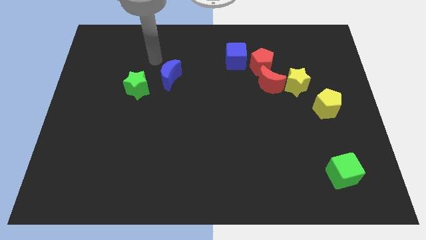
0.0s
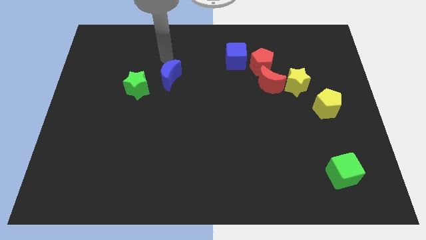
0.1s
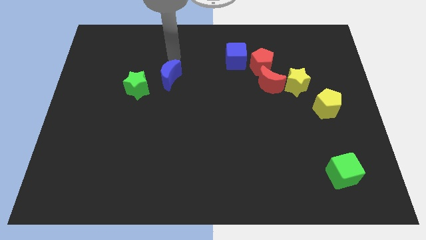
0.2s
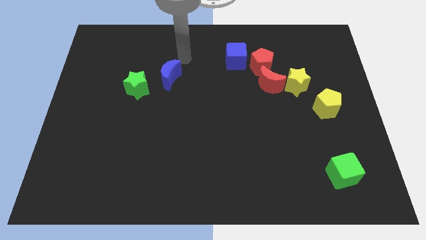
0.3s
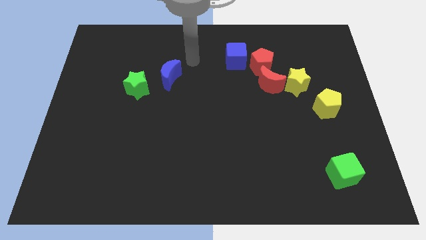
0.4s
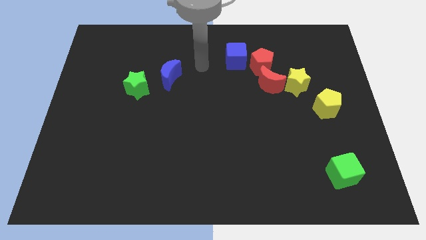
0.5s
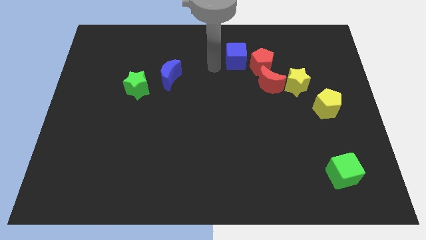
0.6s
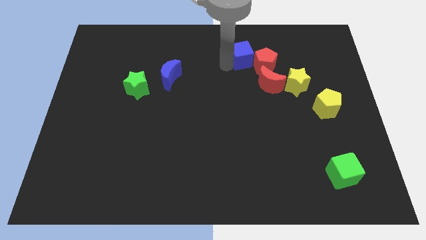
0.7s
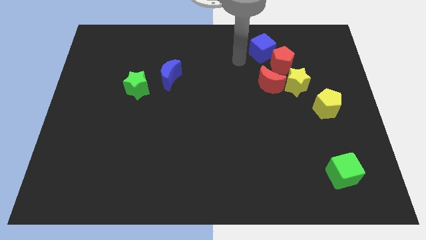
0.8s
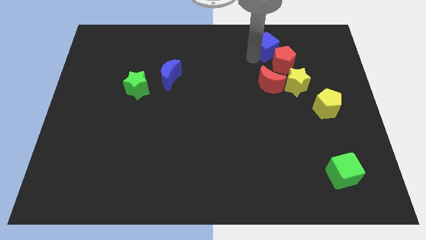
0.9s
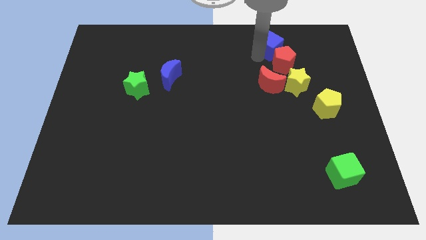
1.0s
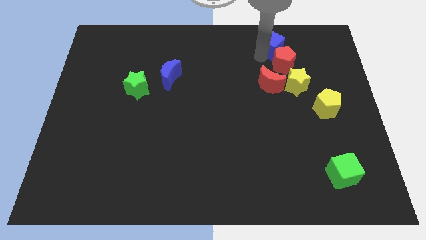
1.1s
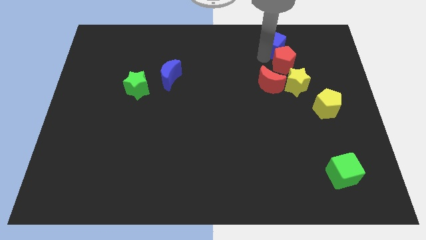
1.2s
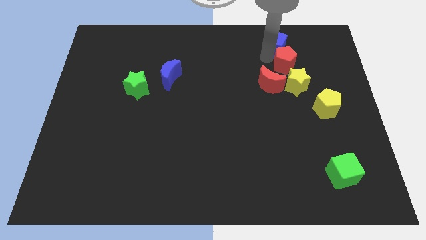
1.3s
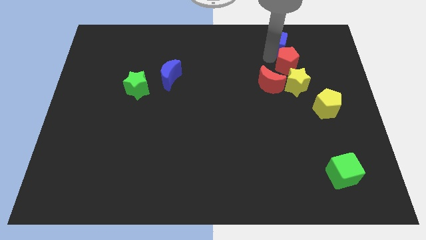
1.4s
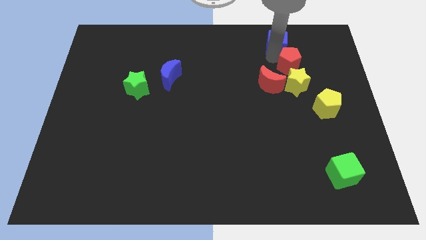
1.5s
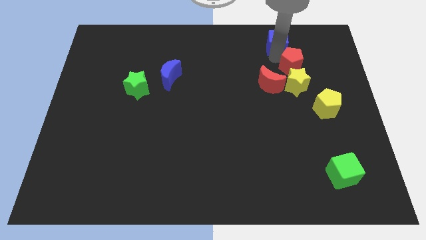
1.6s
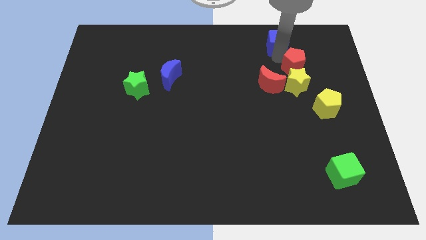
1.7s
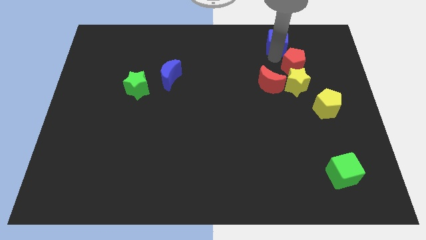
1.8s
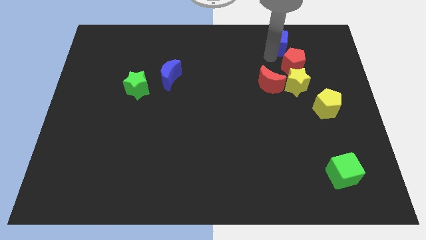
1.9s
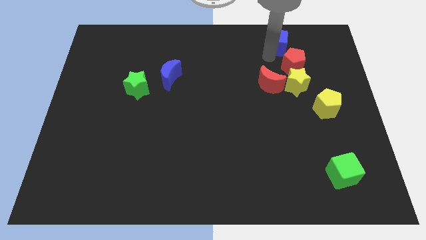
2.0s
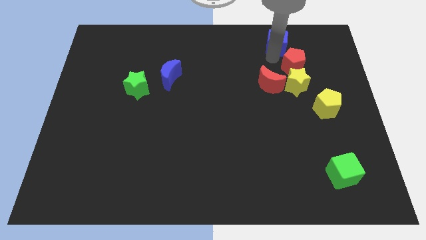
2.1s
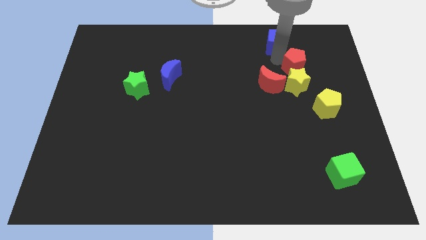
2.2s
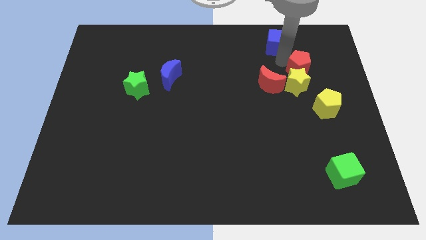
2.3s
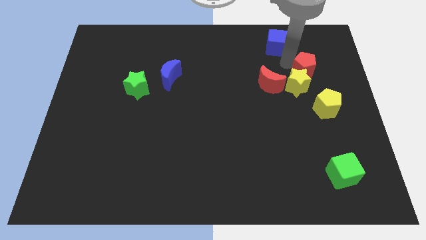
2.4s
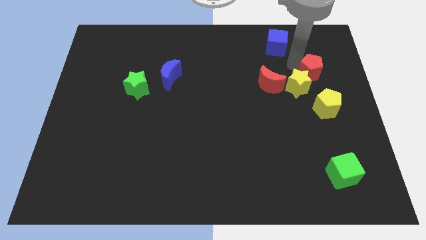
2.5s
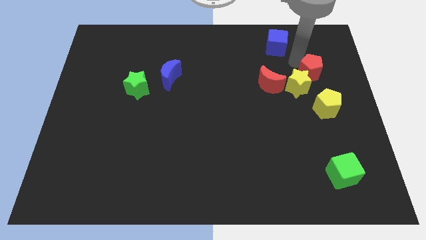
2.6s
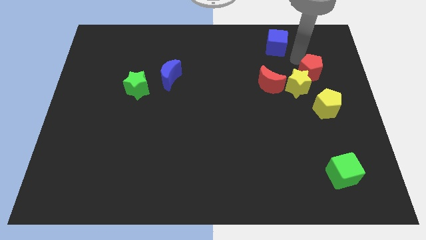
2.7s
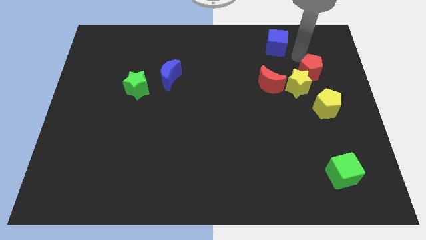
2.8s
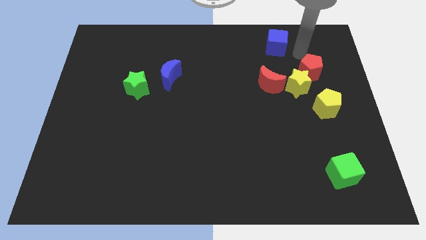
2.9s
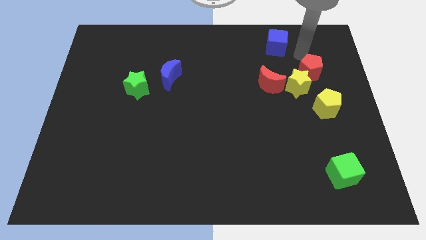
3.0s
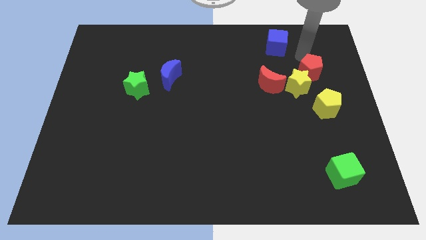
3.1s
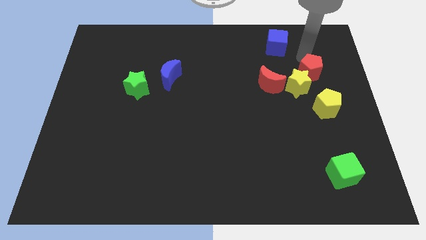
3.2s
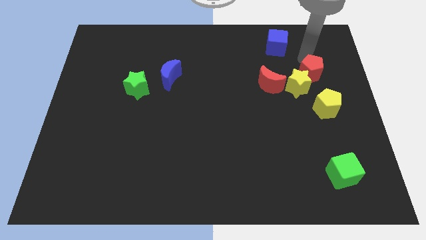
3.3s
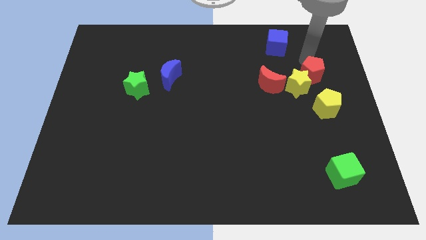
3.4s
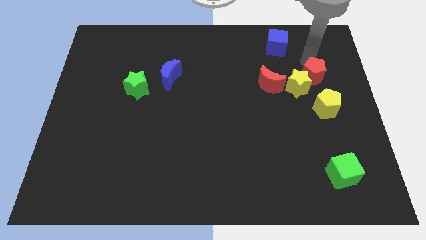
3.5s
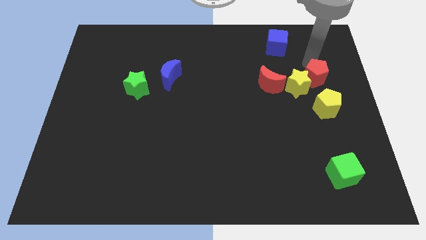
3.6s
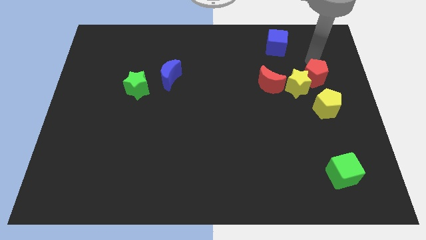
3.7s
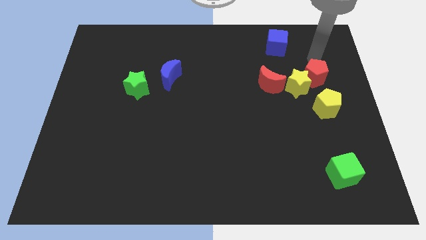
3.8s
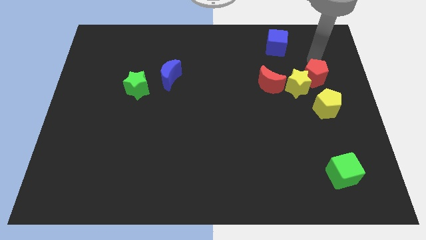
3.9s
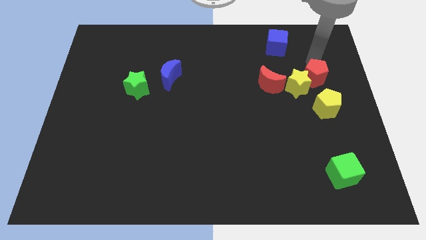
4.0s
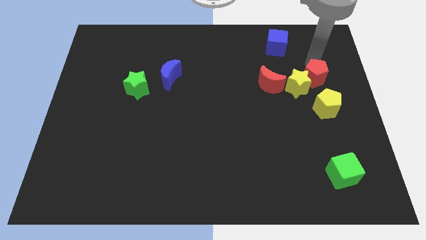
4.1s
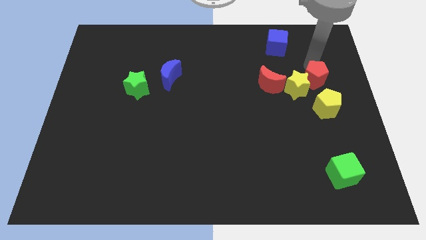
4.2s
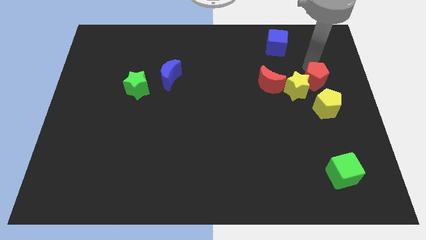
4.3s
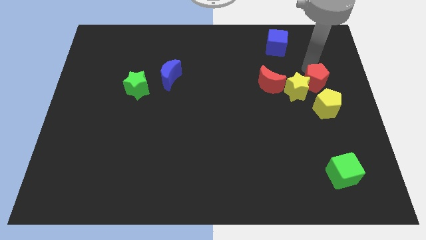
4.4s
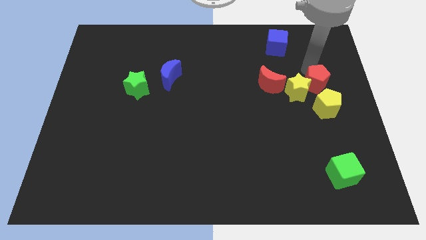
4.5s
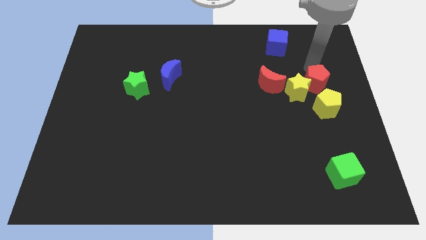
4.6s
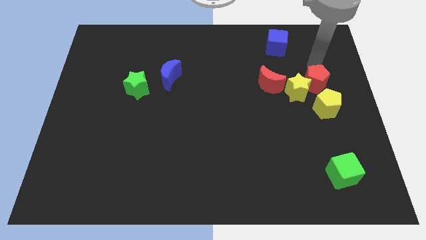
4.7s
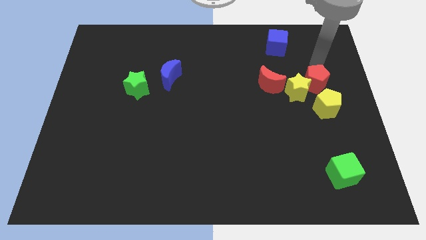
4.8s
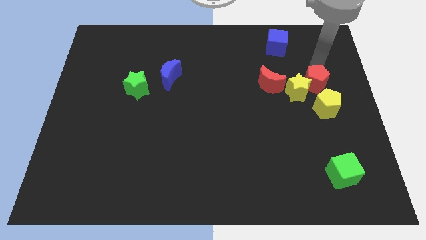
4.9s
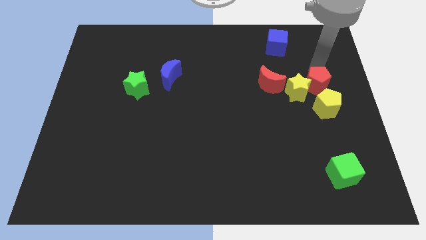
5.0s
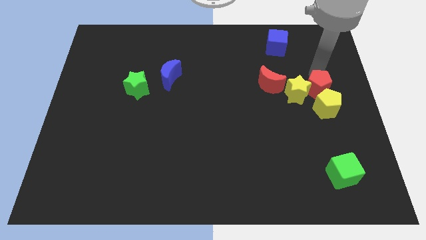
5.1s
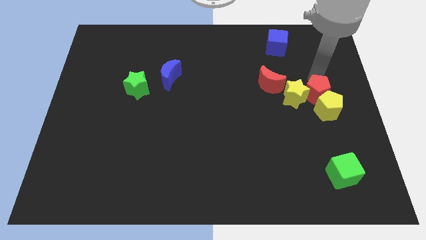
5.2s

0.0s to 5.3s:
move the red pentagon to the yellow pentagon

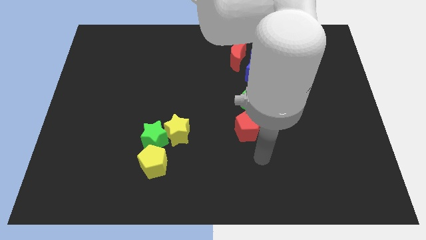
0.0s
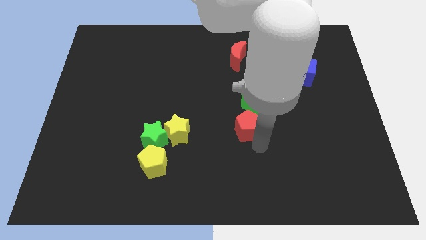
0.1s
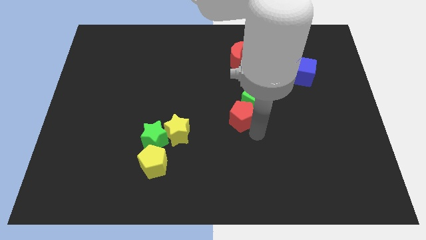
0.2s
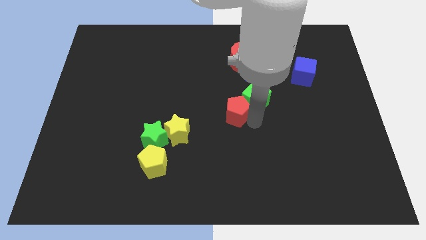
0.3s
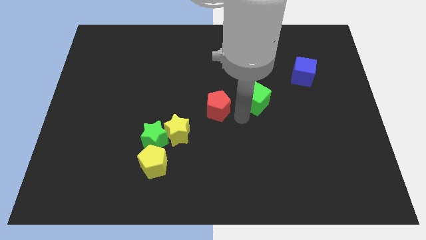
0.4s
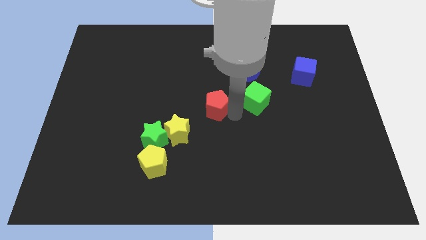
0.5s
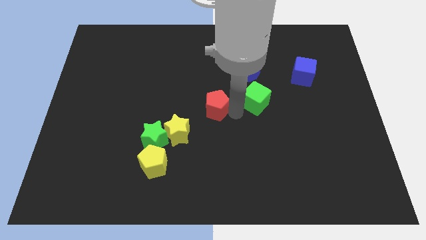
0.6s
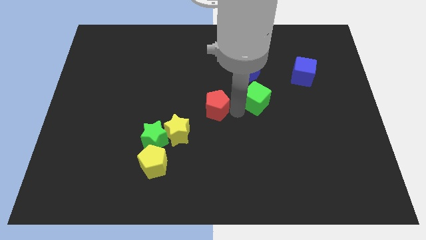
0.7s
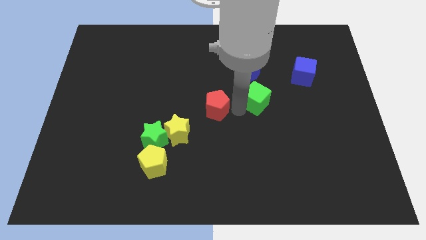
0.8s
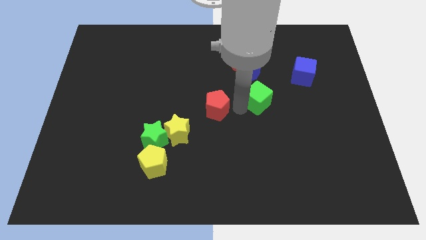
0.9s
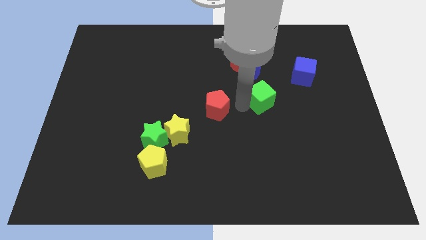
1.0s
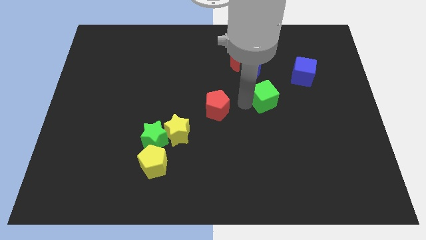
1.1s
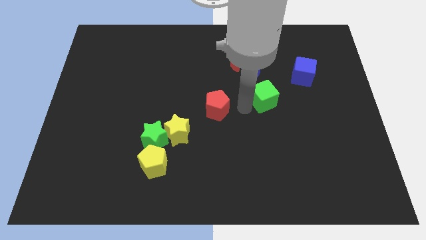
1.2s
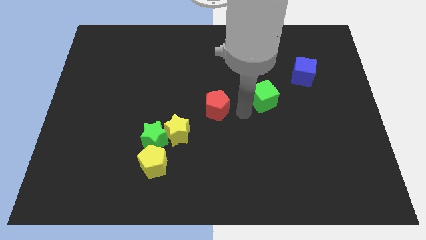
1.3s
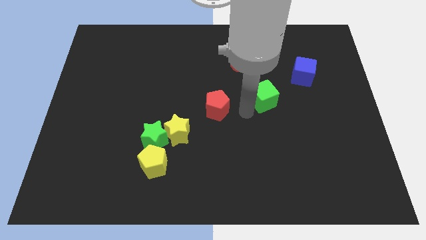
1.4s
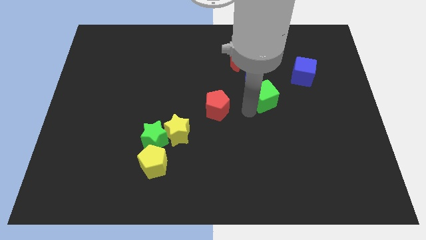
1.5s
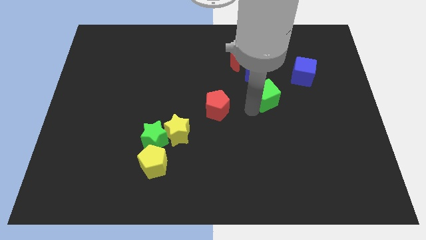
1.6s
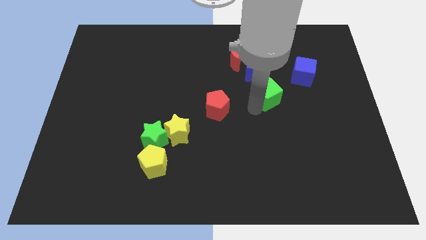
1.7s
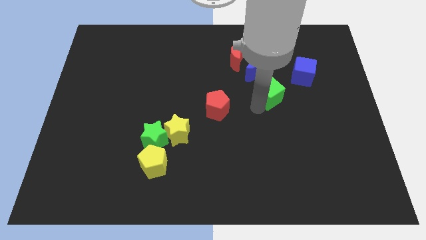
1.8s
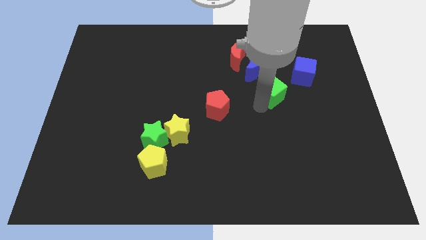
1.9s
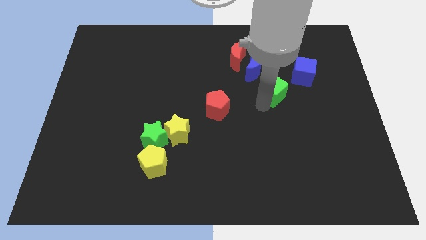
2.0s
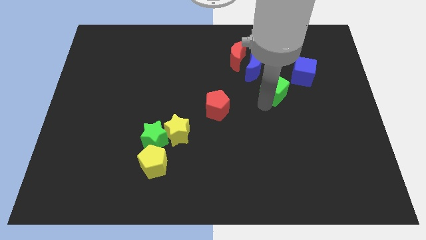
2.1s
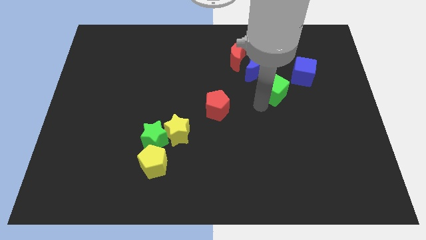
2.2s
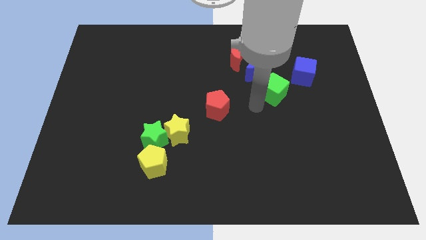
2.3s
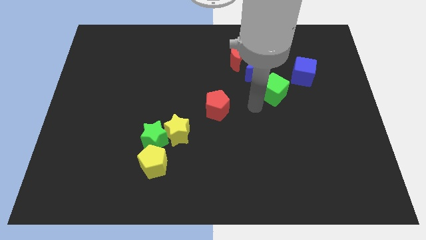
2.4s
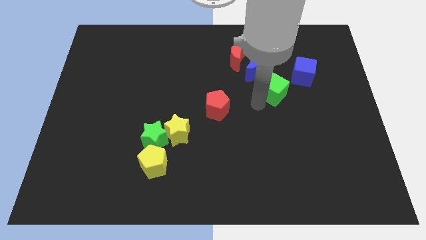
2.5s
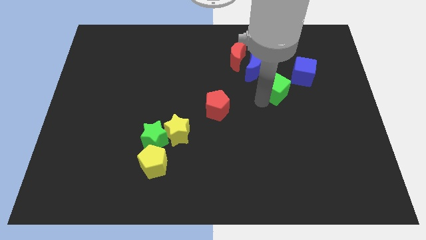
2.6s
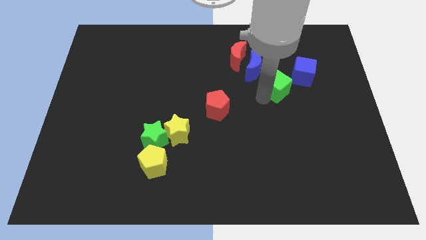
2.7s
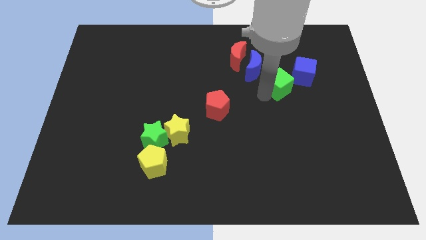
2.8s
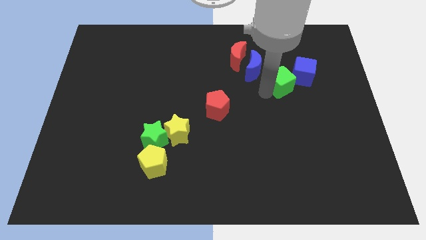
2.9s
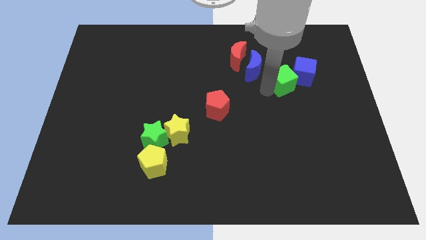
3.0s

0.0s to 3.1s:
put the green cube towards the blue cube
